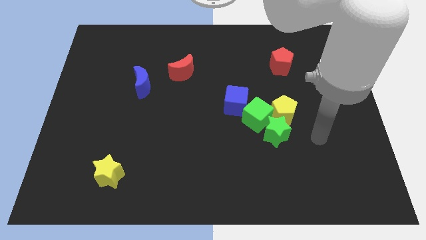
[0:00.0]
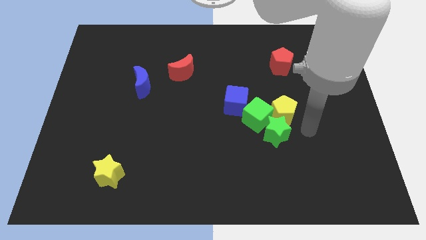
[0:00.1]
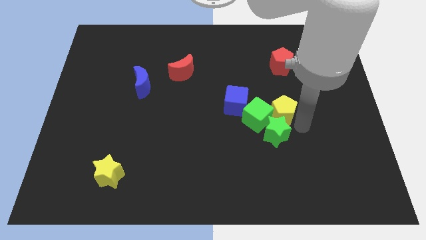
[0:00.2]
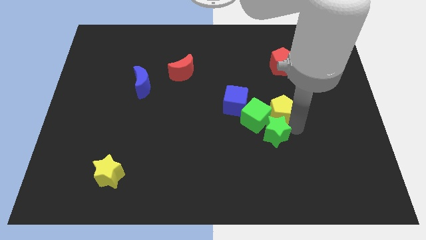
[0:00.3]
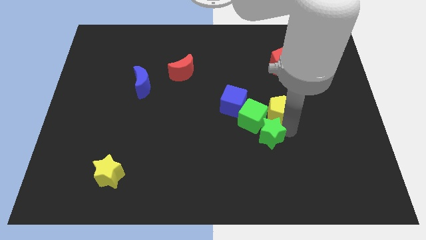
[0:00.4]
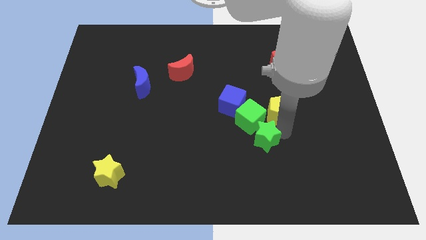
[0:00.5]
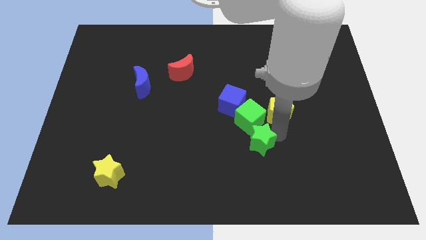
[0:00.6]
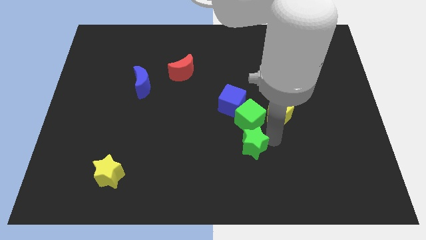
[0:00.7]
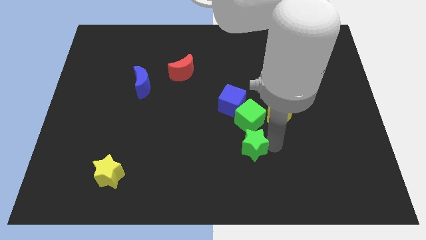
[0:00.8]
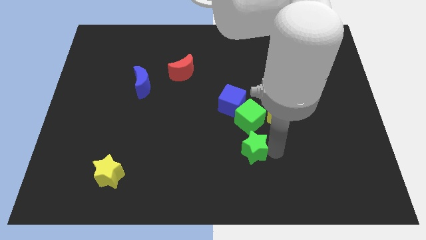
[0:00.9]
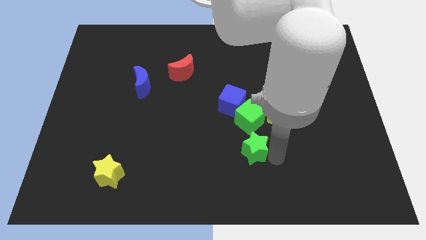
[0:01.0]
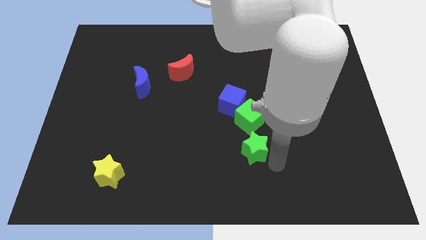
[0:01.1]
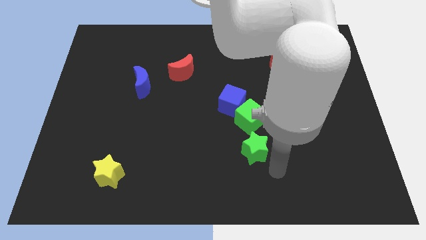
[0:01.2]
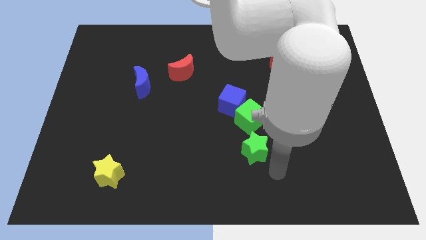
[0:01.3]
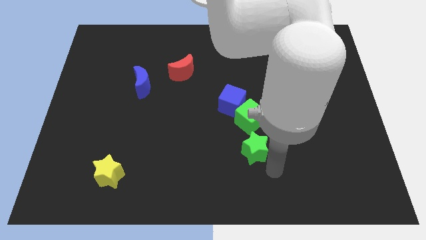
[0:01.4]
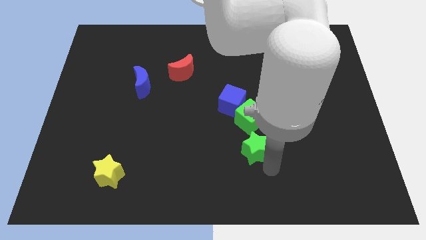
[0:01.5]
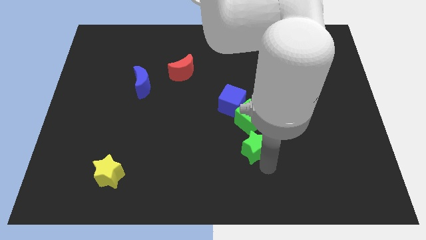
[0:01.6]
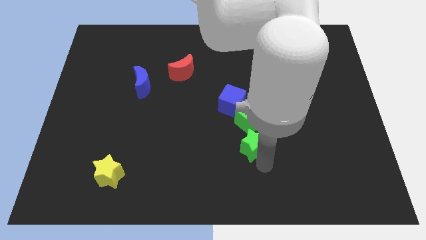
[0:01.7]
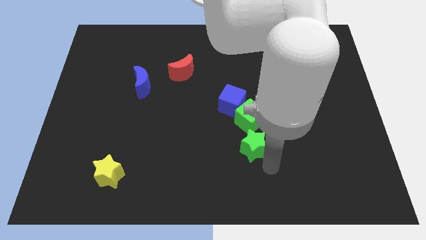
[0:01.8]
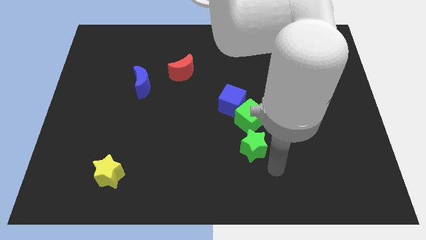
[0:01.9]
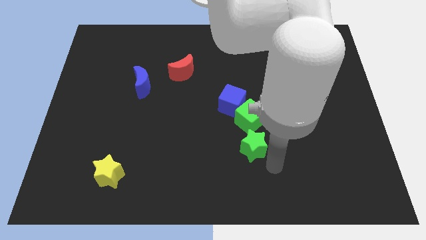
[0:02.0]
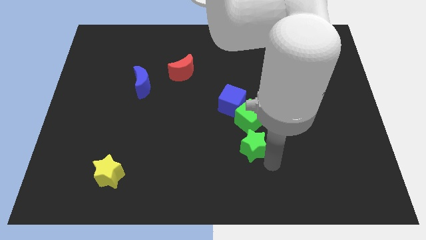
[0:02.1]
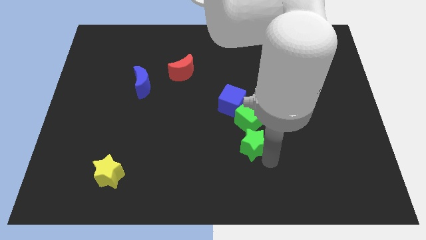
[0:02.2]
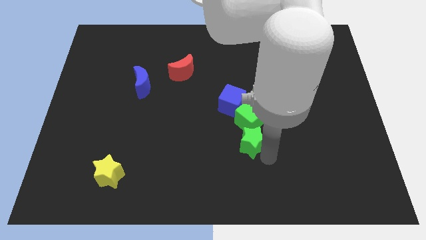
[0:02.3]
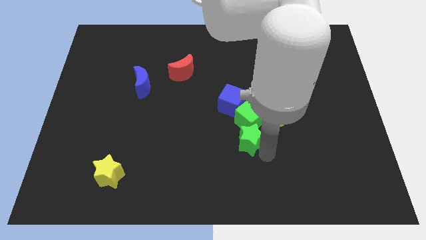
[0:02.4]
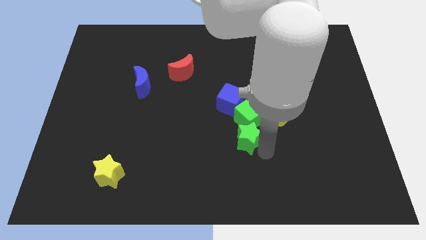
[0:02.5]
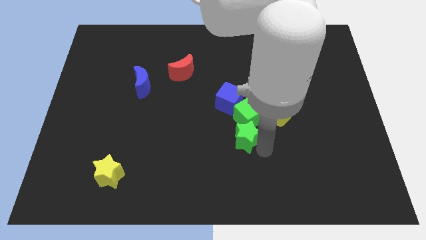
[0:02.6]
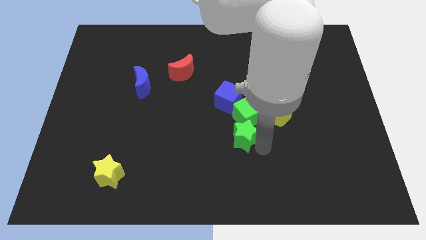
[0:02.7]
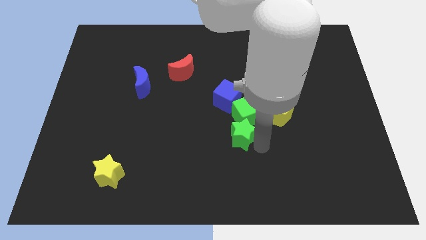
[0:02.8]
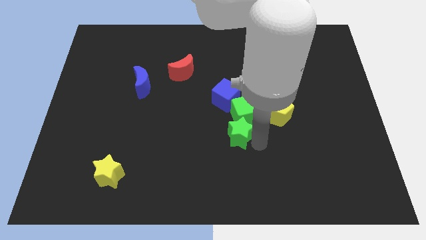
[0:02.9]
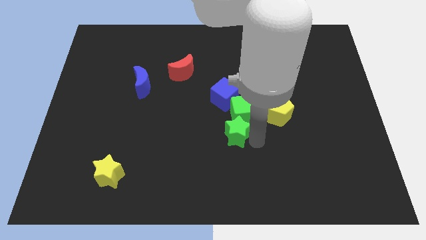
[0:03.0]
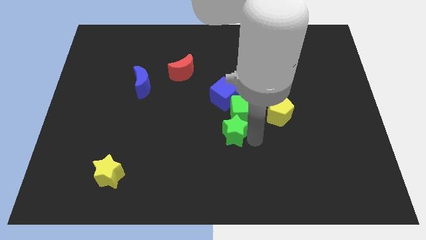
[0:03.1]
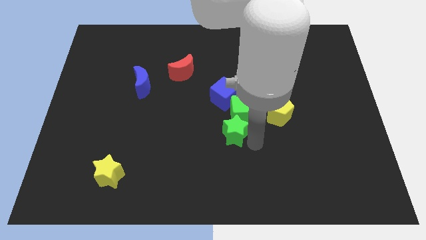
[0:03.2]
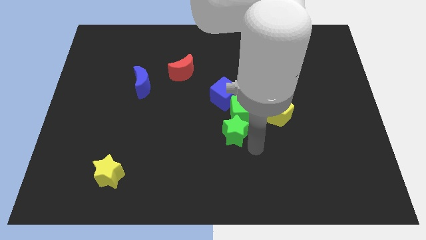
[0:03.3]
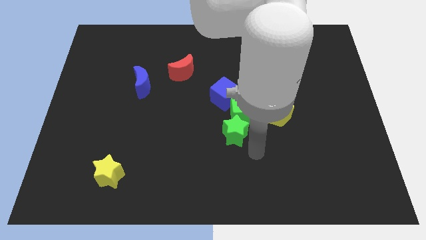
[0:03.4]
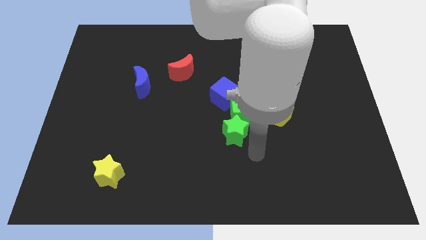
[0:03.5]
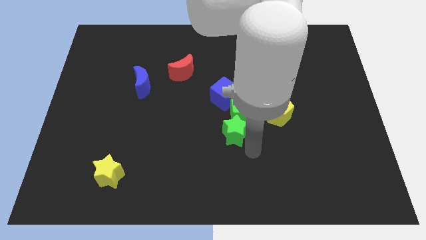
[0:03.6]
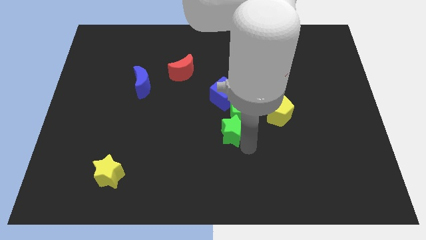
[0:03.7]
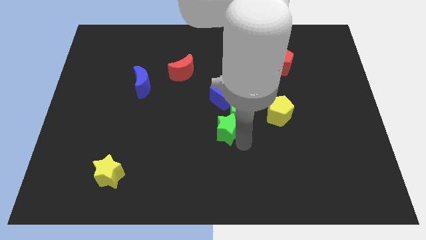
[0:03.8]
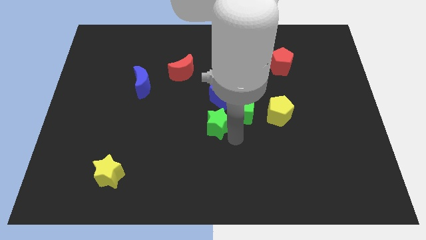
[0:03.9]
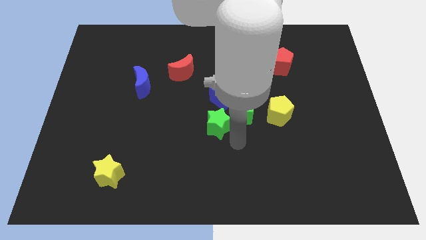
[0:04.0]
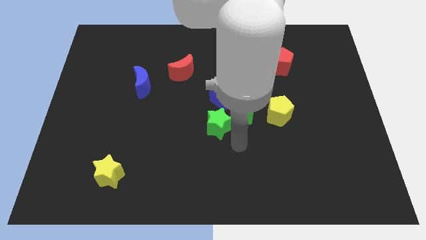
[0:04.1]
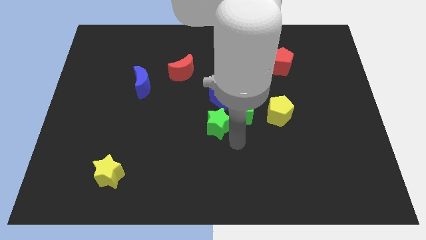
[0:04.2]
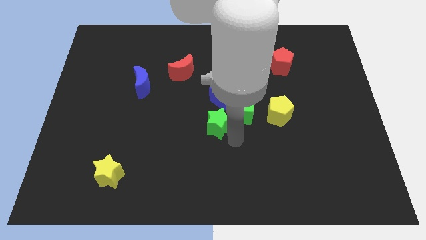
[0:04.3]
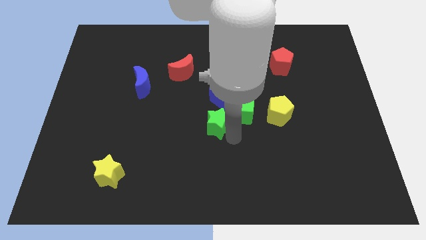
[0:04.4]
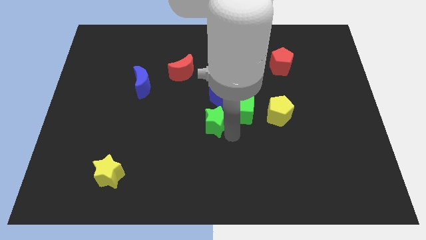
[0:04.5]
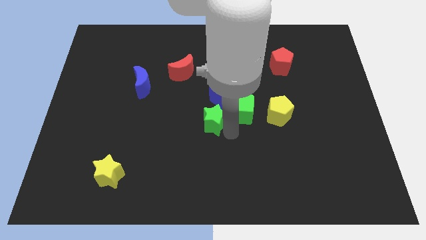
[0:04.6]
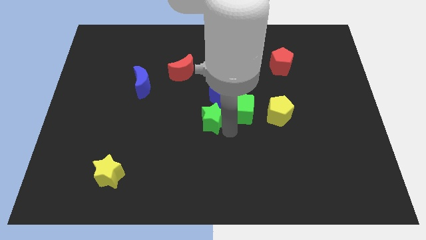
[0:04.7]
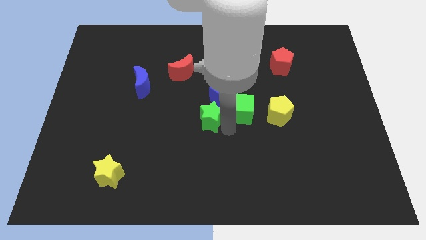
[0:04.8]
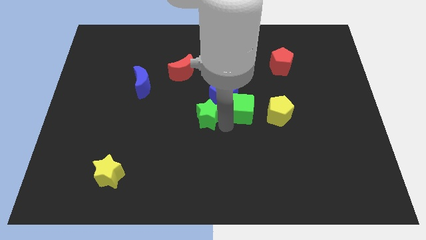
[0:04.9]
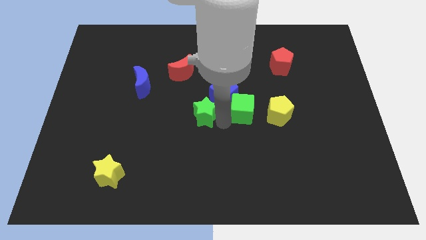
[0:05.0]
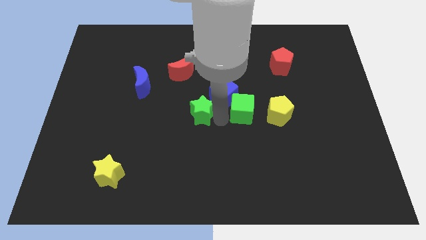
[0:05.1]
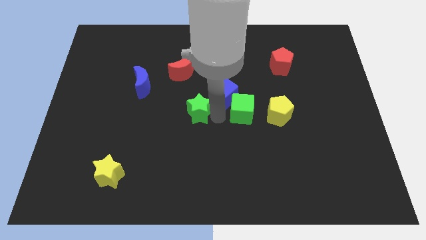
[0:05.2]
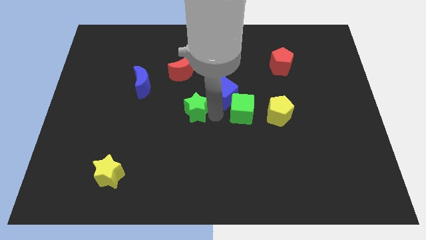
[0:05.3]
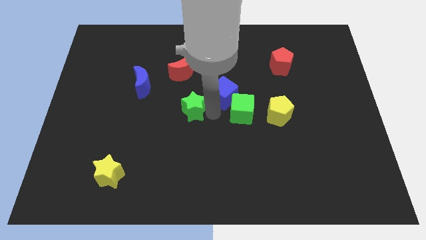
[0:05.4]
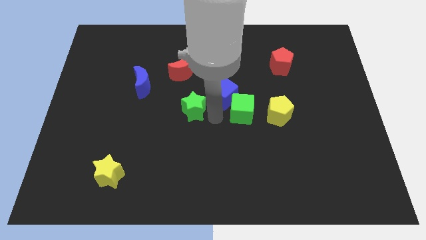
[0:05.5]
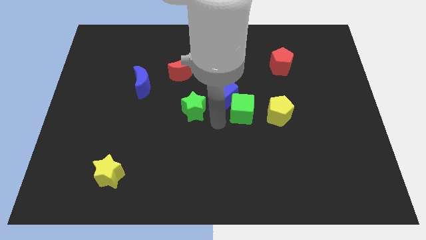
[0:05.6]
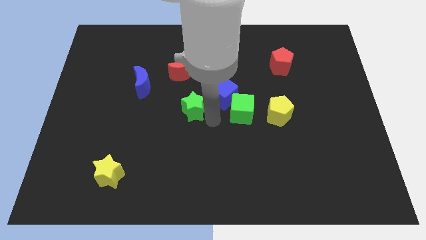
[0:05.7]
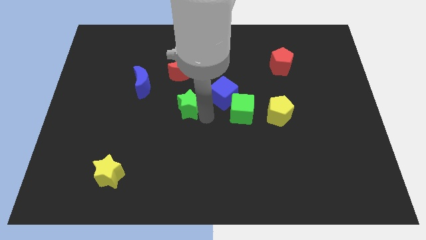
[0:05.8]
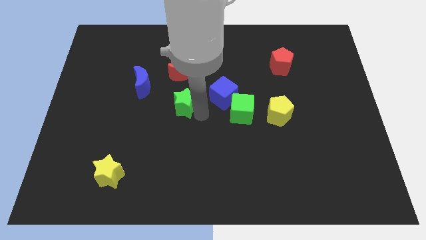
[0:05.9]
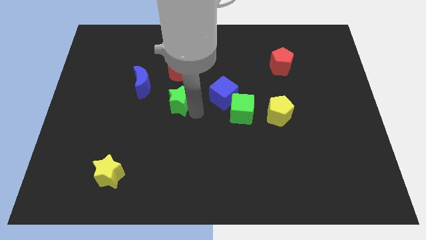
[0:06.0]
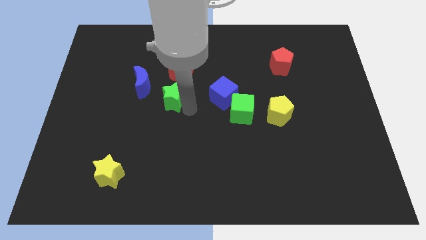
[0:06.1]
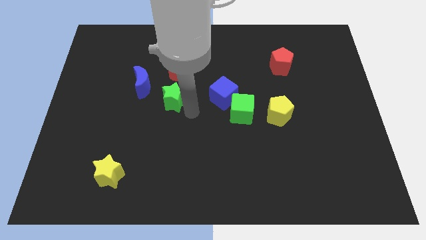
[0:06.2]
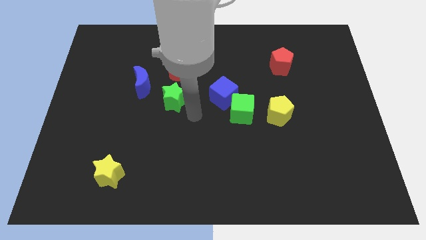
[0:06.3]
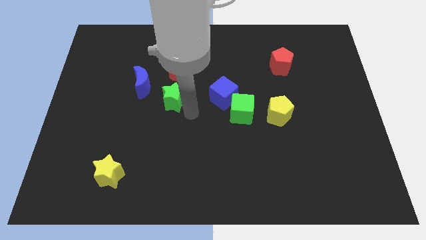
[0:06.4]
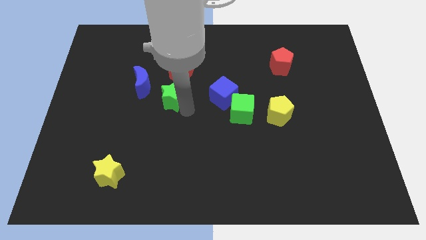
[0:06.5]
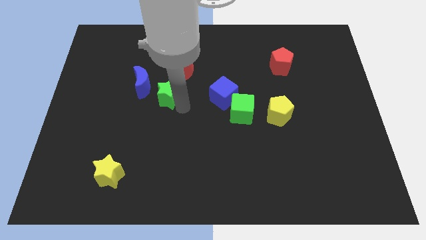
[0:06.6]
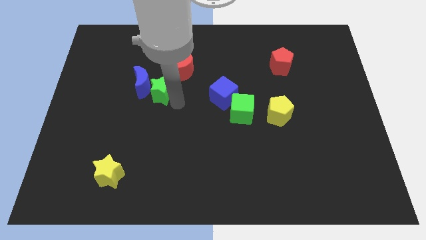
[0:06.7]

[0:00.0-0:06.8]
slide the green star to the blue moon

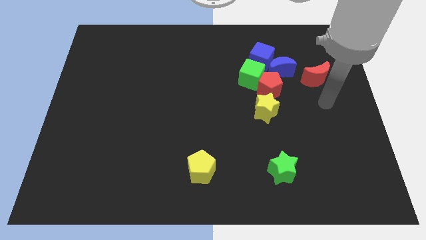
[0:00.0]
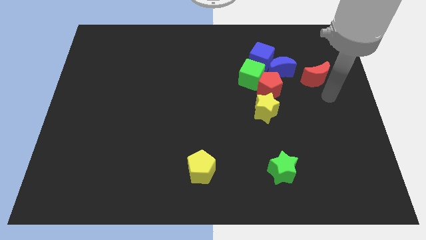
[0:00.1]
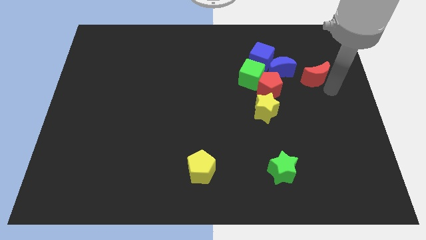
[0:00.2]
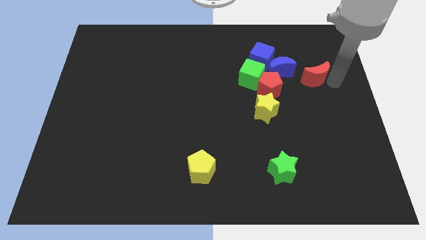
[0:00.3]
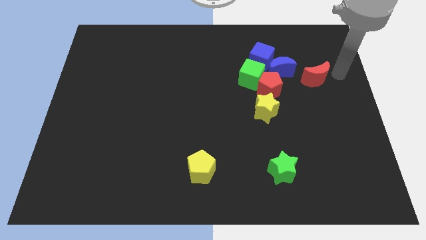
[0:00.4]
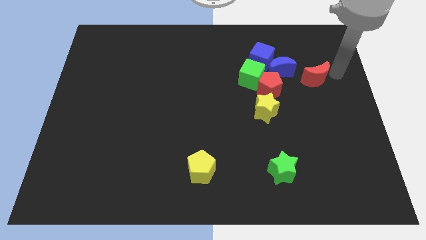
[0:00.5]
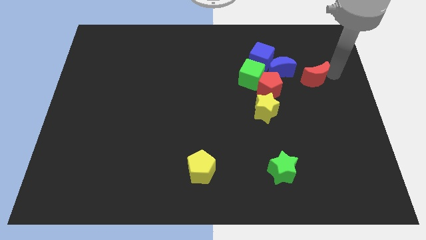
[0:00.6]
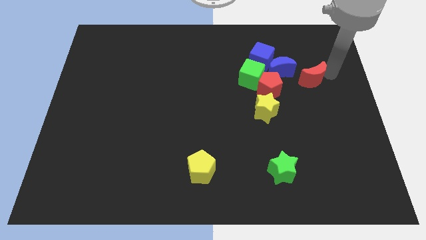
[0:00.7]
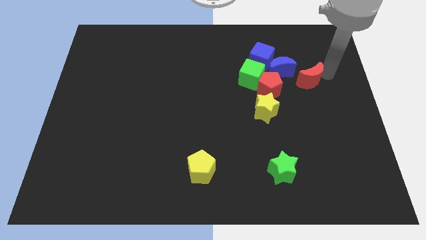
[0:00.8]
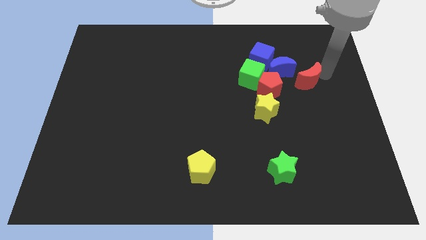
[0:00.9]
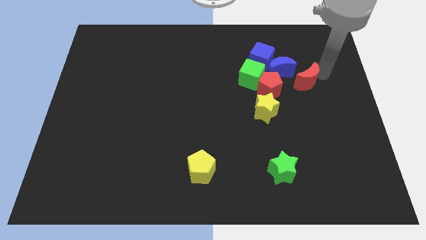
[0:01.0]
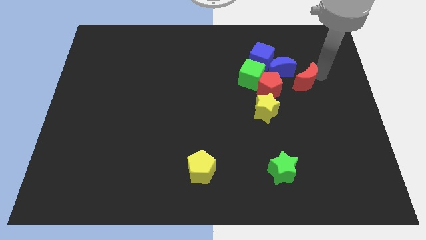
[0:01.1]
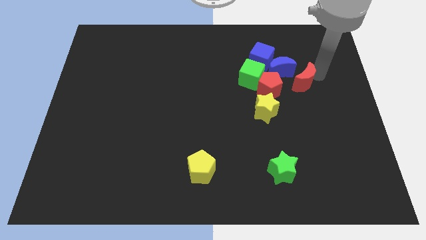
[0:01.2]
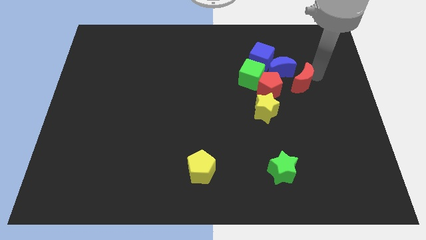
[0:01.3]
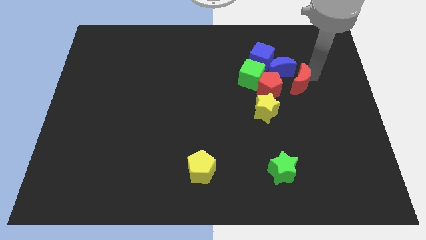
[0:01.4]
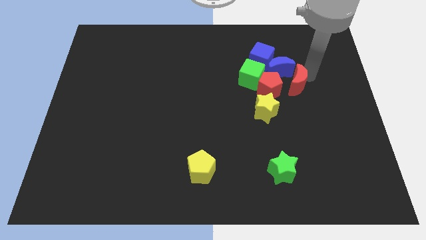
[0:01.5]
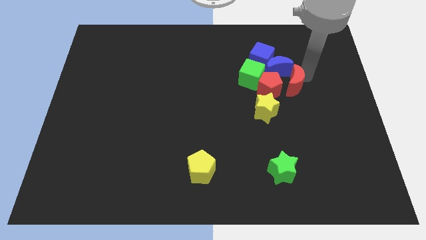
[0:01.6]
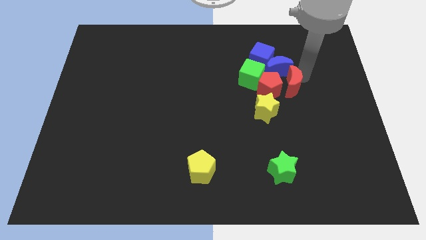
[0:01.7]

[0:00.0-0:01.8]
slide the red moon to the red pentagon
